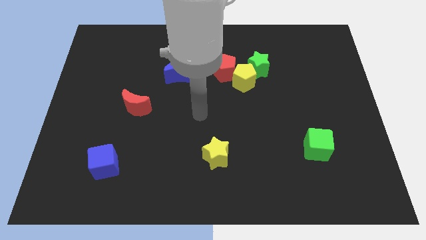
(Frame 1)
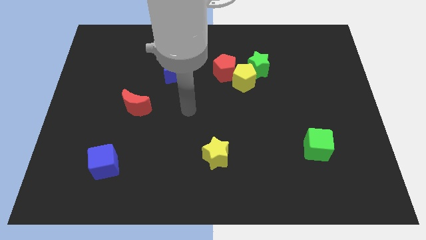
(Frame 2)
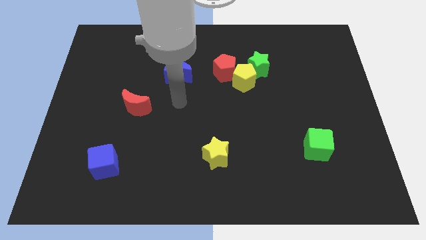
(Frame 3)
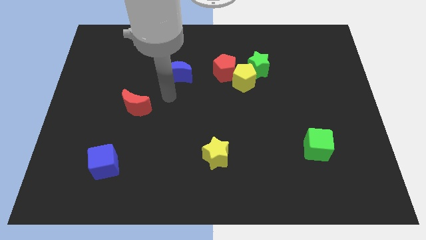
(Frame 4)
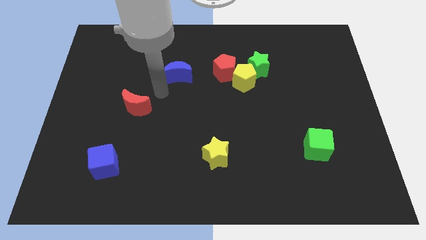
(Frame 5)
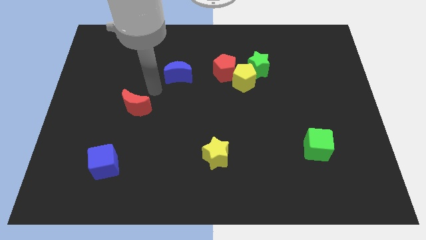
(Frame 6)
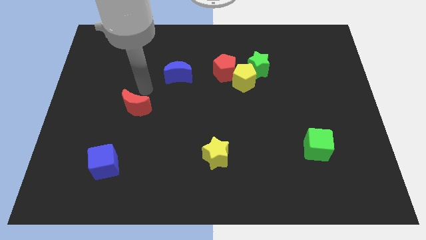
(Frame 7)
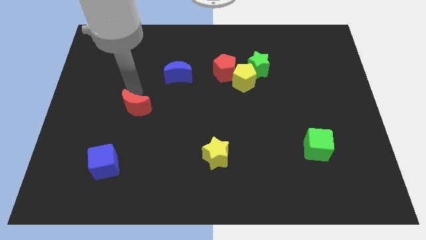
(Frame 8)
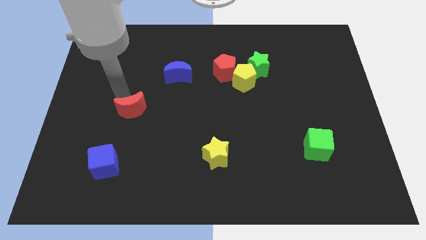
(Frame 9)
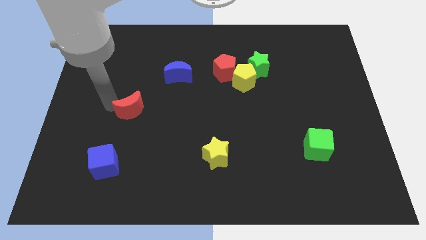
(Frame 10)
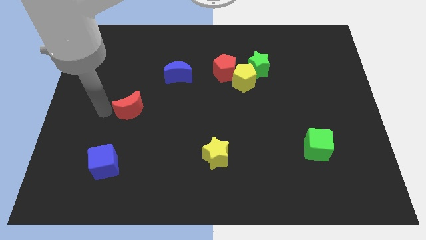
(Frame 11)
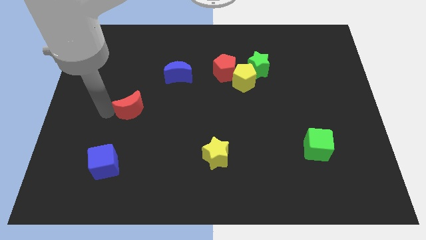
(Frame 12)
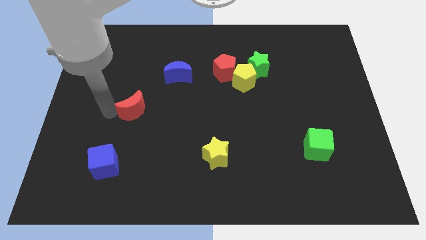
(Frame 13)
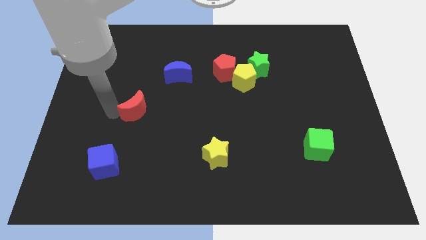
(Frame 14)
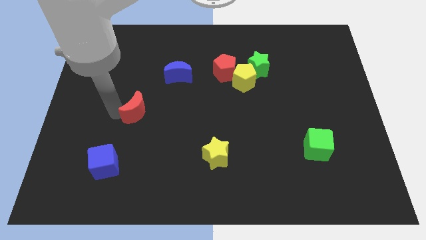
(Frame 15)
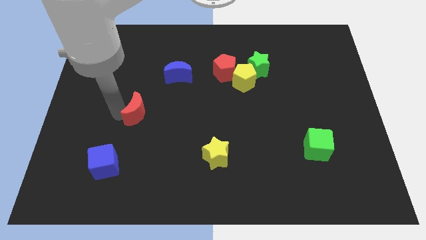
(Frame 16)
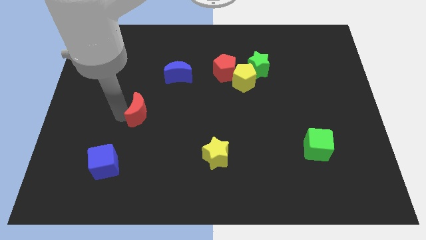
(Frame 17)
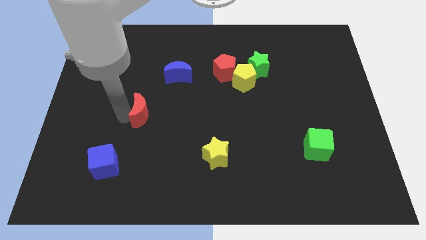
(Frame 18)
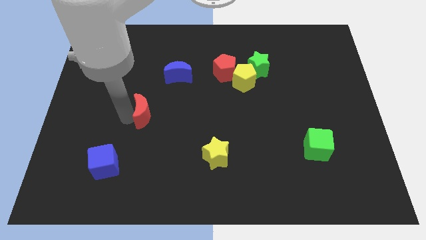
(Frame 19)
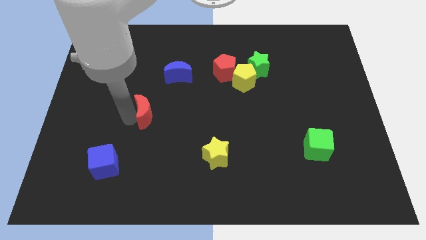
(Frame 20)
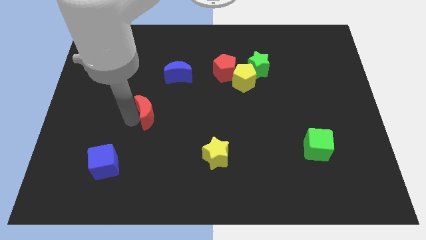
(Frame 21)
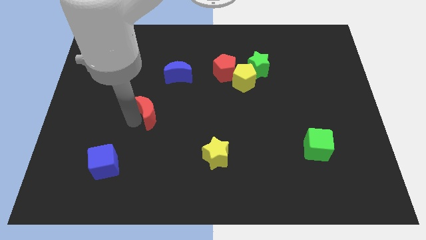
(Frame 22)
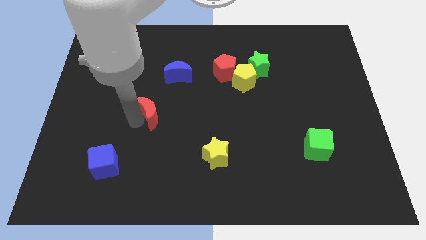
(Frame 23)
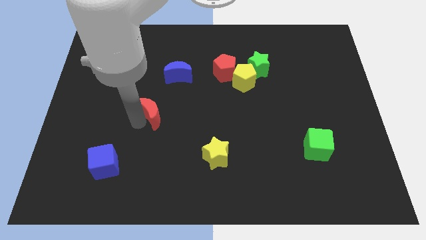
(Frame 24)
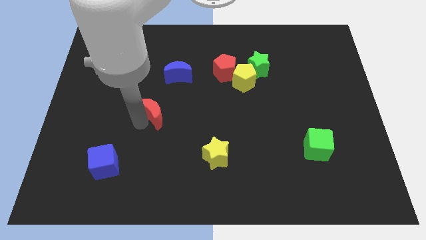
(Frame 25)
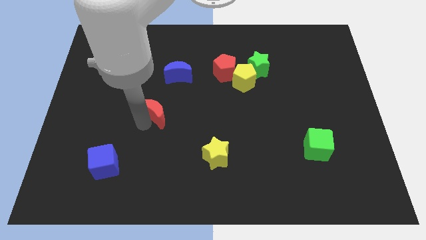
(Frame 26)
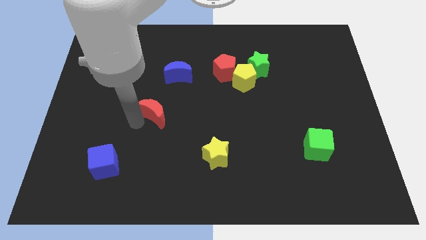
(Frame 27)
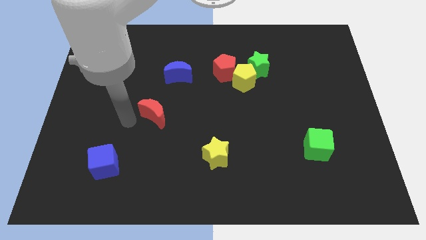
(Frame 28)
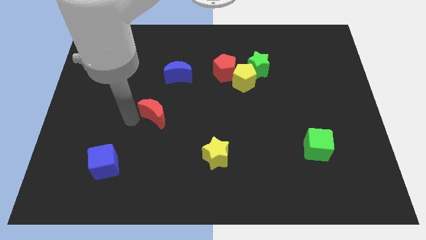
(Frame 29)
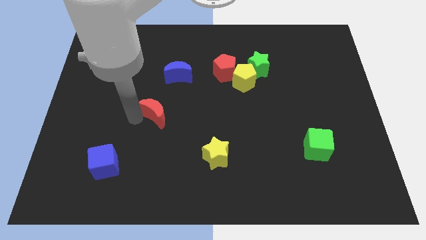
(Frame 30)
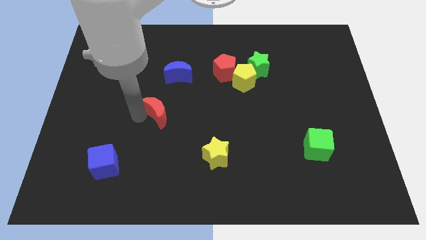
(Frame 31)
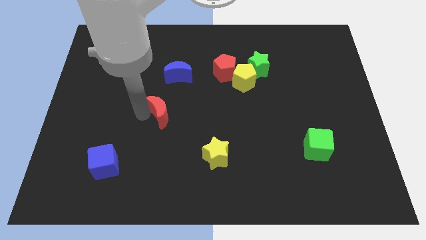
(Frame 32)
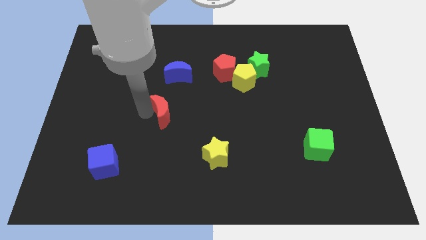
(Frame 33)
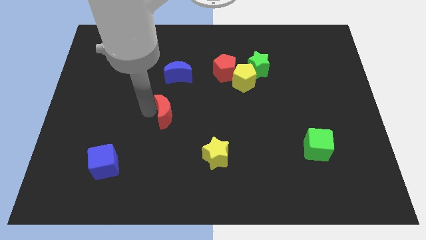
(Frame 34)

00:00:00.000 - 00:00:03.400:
push the red moon a bit right

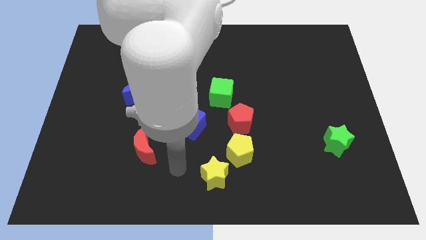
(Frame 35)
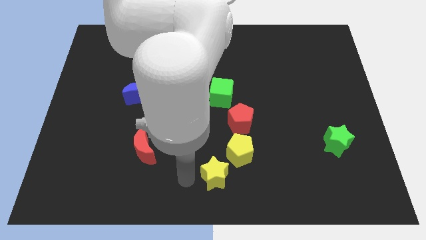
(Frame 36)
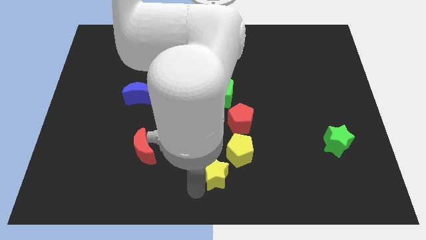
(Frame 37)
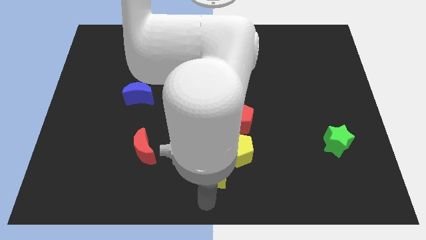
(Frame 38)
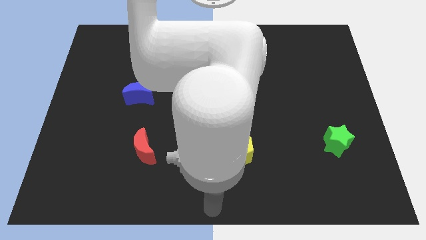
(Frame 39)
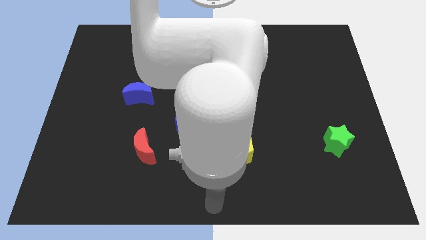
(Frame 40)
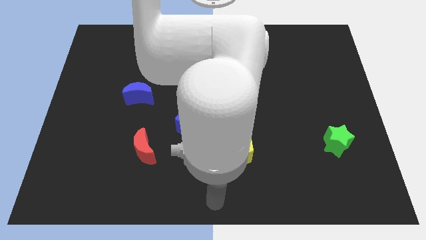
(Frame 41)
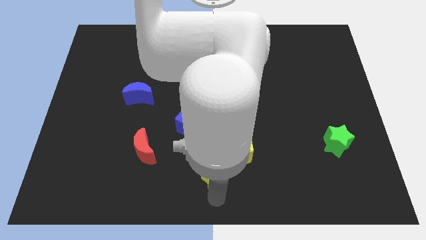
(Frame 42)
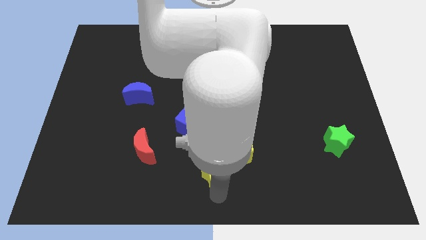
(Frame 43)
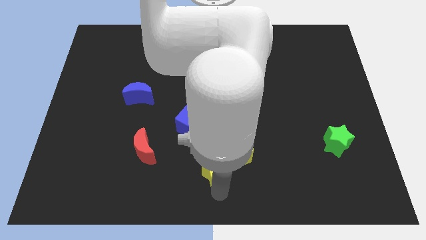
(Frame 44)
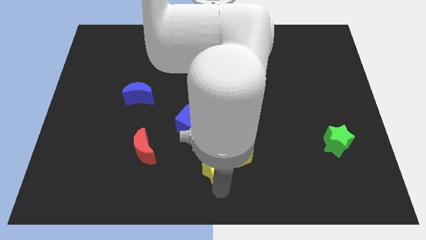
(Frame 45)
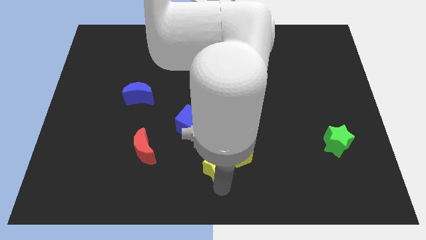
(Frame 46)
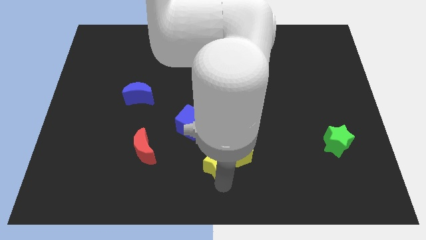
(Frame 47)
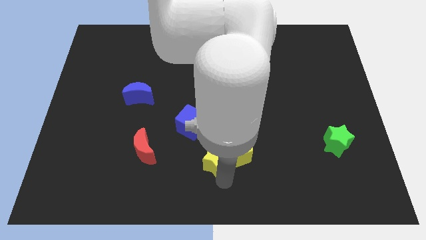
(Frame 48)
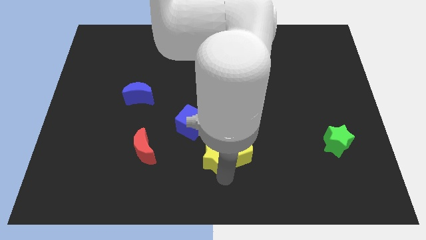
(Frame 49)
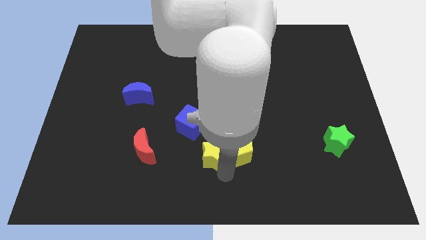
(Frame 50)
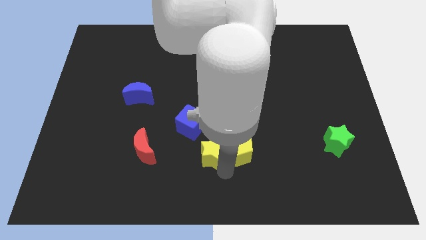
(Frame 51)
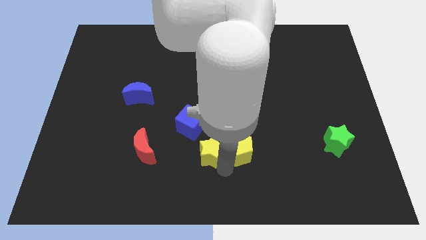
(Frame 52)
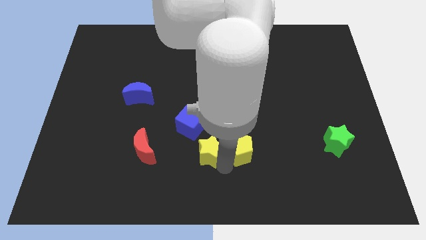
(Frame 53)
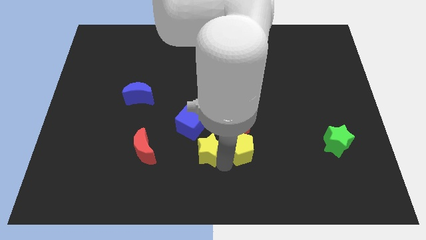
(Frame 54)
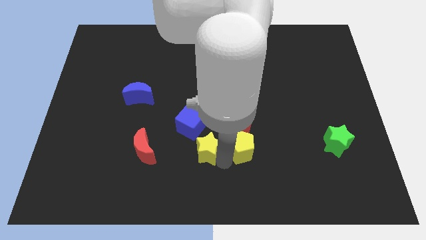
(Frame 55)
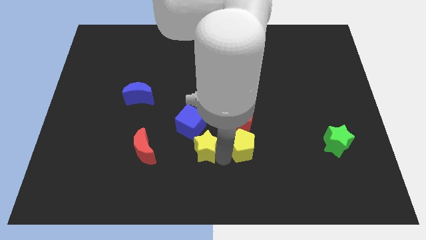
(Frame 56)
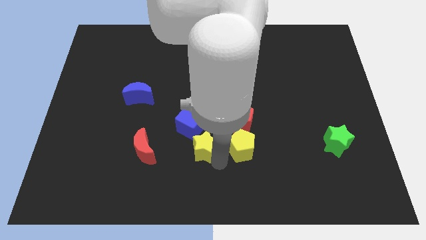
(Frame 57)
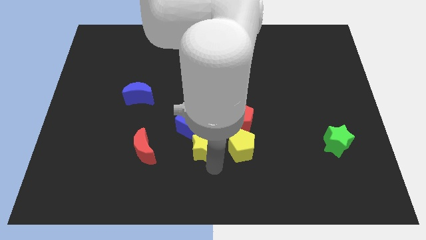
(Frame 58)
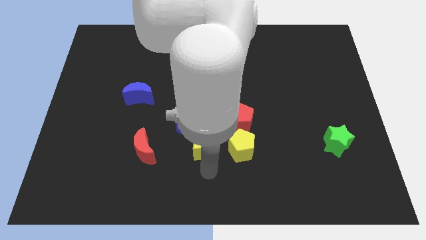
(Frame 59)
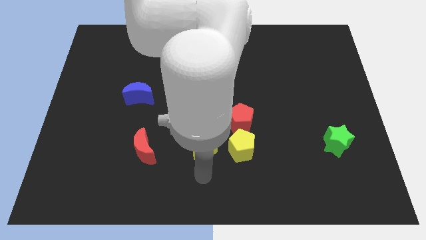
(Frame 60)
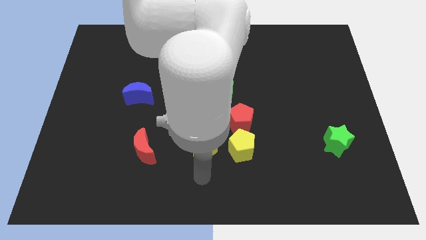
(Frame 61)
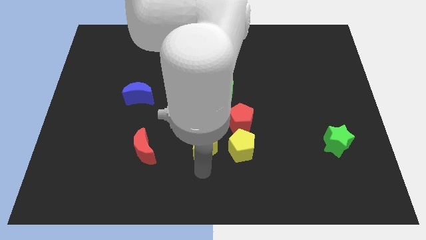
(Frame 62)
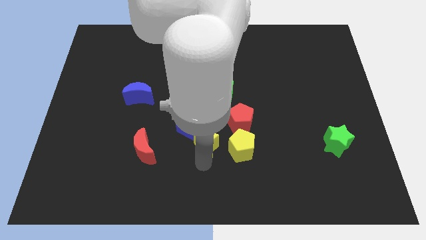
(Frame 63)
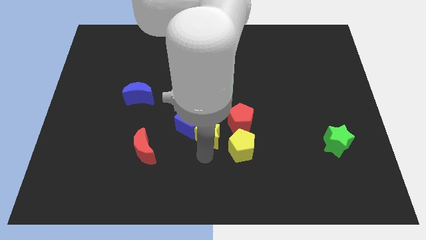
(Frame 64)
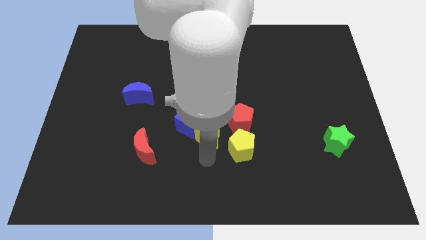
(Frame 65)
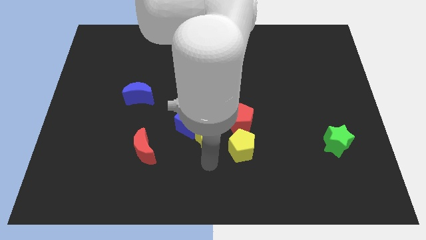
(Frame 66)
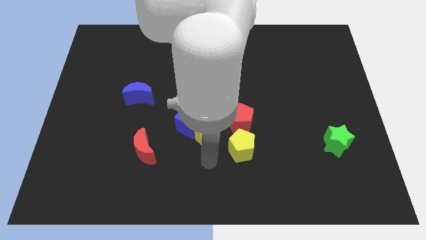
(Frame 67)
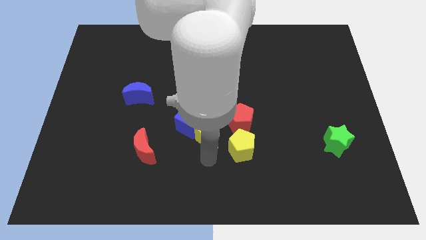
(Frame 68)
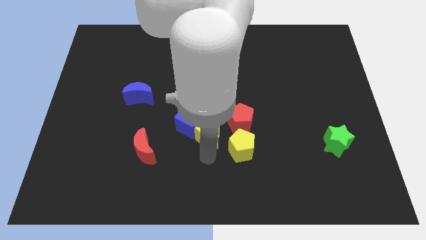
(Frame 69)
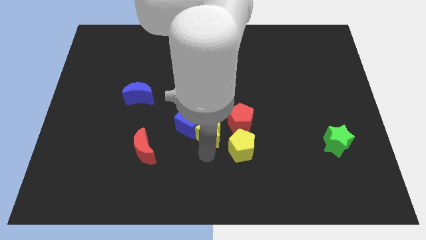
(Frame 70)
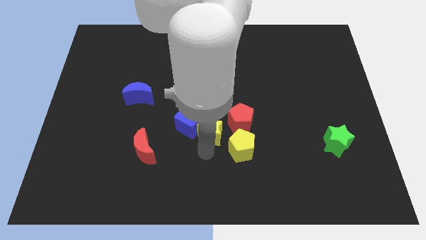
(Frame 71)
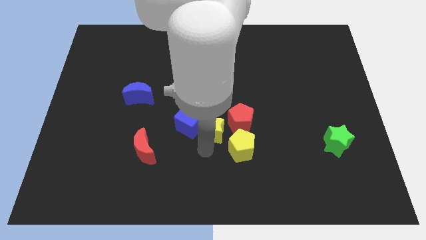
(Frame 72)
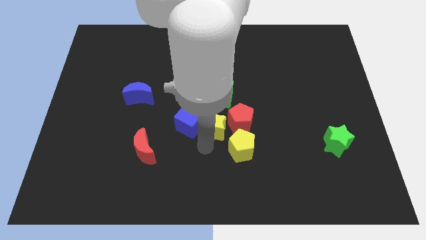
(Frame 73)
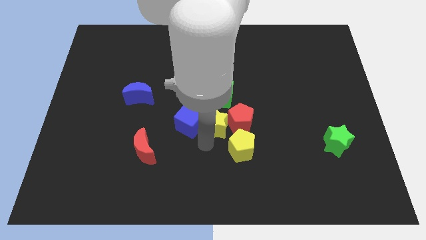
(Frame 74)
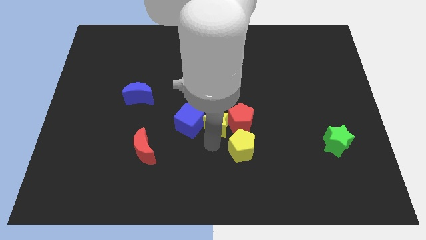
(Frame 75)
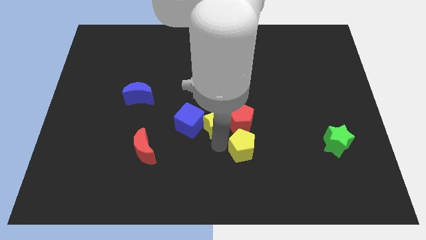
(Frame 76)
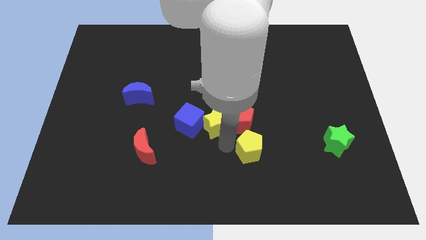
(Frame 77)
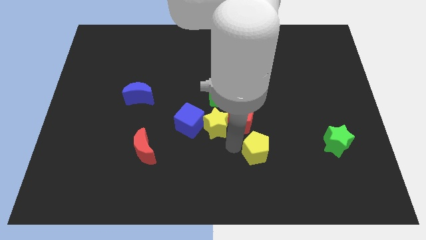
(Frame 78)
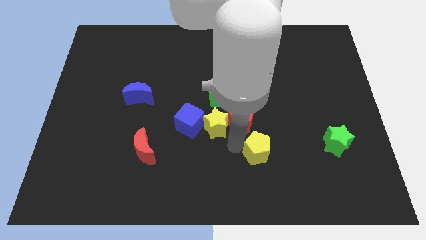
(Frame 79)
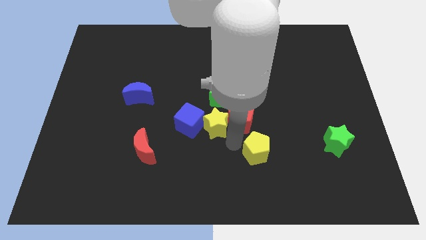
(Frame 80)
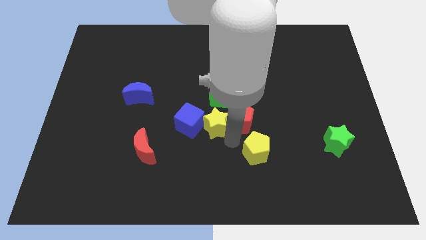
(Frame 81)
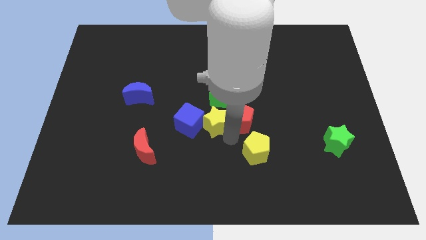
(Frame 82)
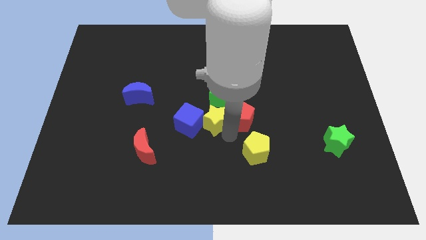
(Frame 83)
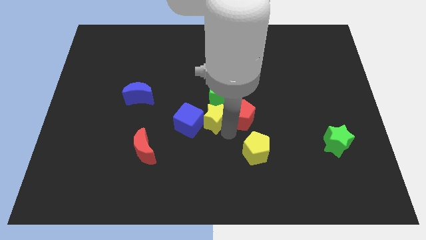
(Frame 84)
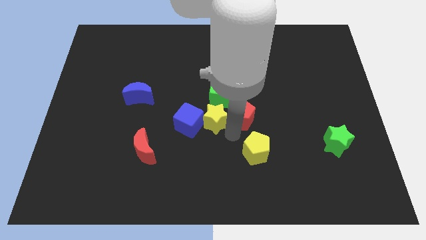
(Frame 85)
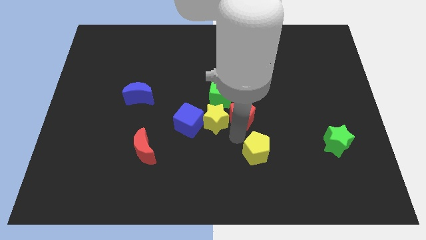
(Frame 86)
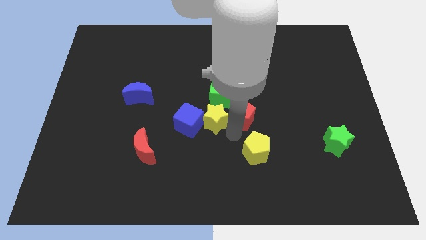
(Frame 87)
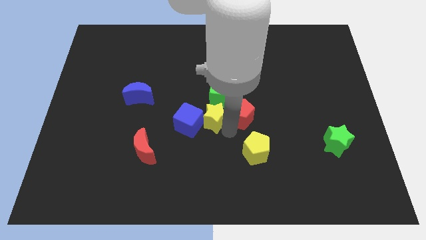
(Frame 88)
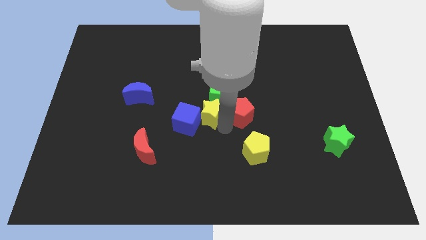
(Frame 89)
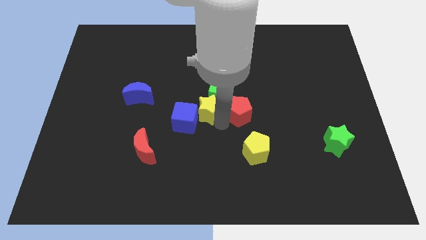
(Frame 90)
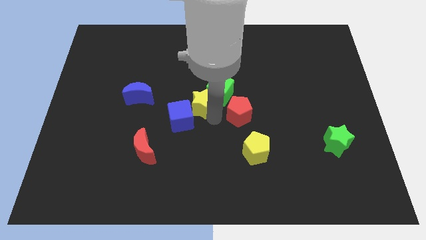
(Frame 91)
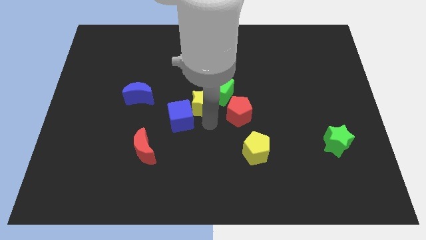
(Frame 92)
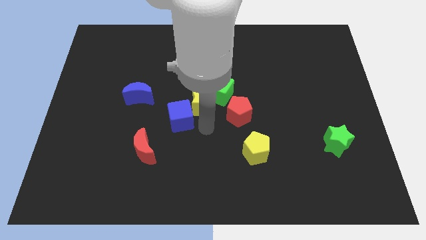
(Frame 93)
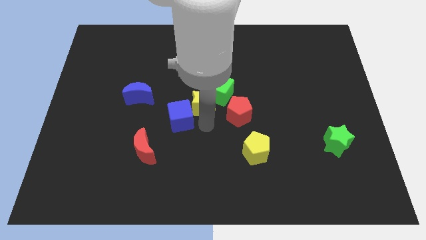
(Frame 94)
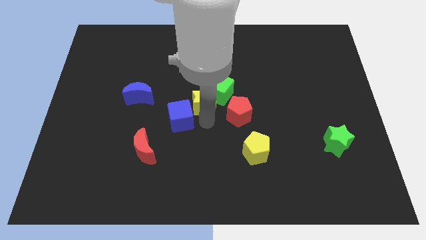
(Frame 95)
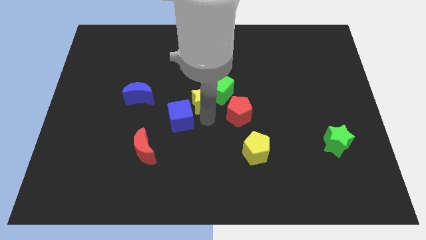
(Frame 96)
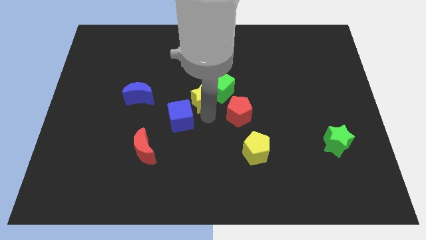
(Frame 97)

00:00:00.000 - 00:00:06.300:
move the yellow star upwards
